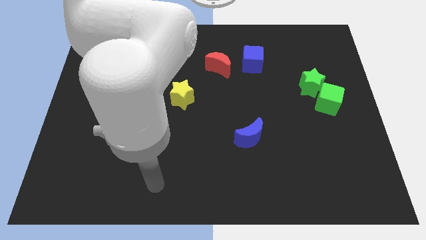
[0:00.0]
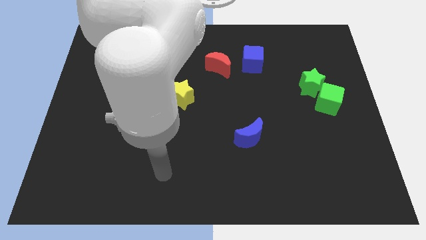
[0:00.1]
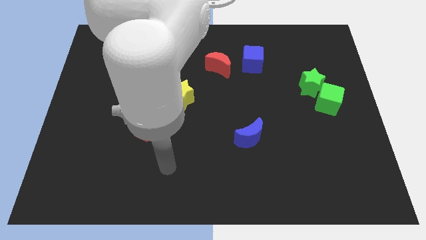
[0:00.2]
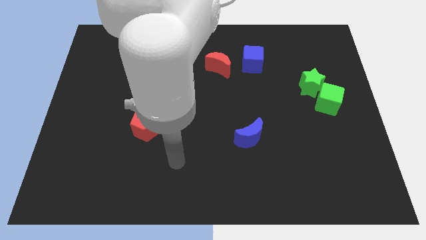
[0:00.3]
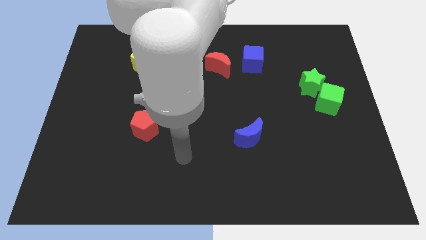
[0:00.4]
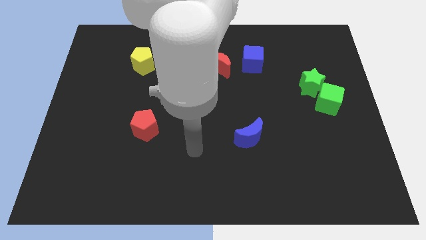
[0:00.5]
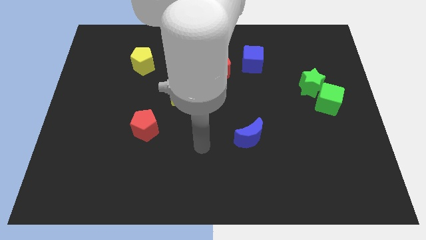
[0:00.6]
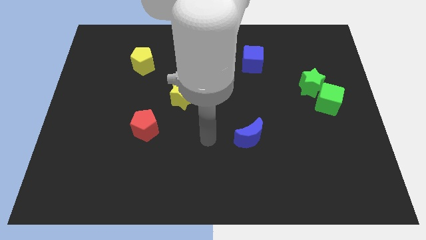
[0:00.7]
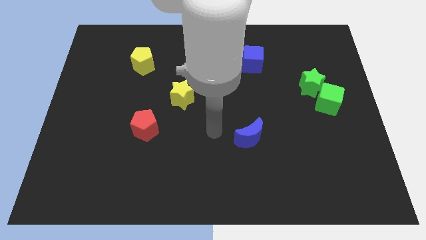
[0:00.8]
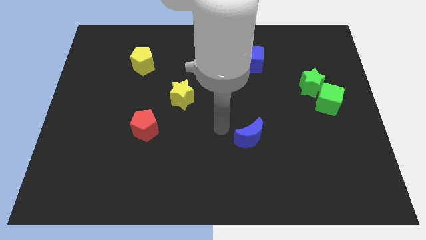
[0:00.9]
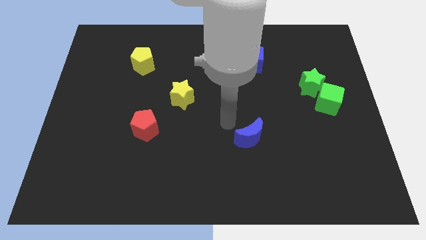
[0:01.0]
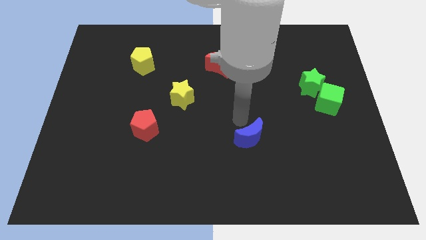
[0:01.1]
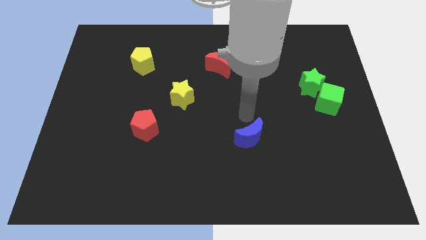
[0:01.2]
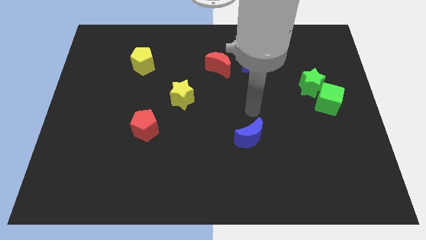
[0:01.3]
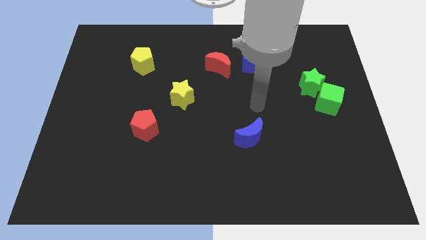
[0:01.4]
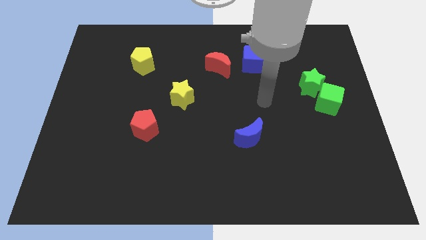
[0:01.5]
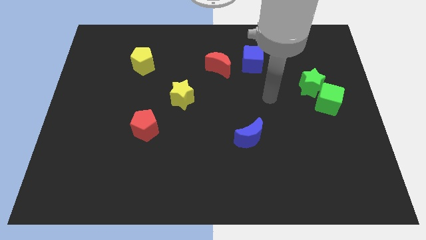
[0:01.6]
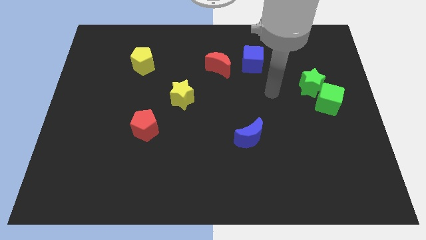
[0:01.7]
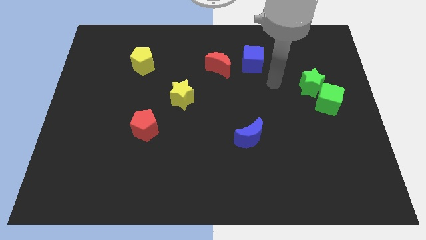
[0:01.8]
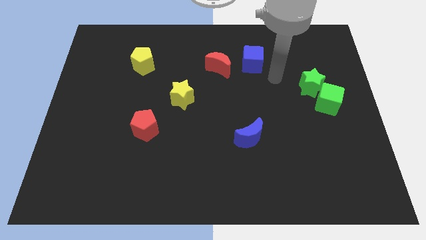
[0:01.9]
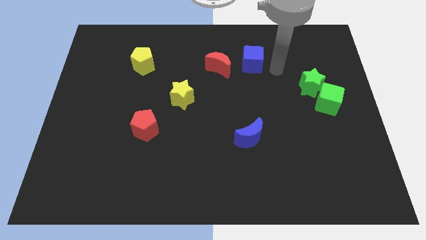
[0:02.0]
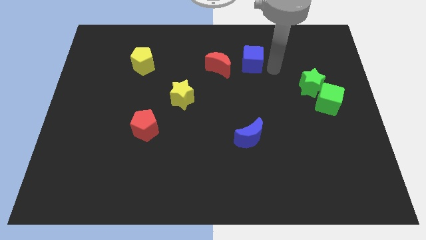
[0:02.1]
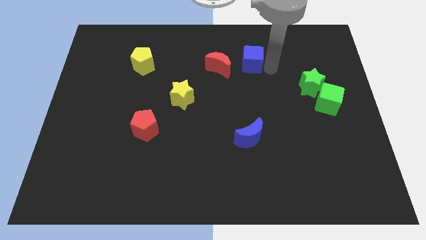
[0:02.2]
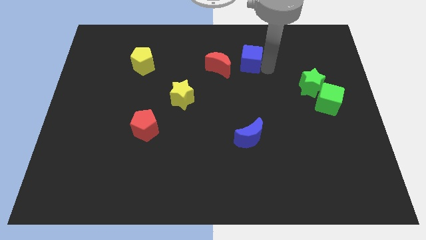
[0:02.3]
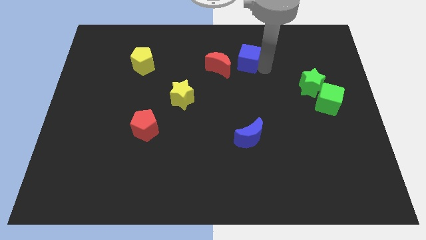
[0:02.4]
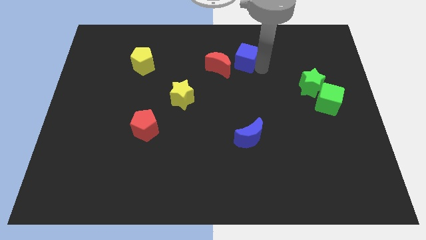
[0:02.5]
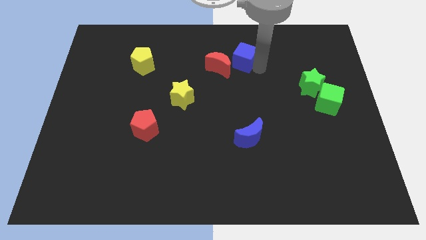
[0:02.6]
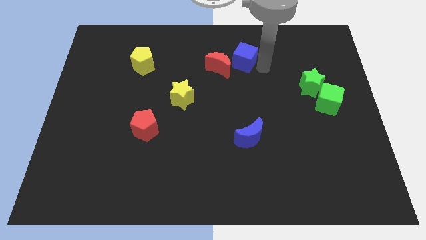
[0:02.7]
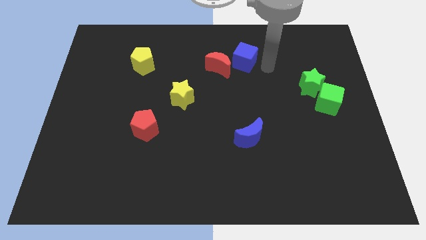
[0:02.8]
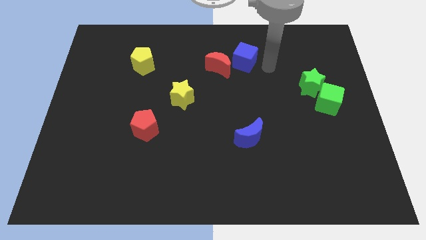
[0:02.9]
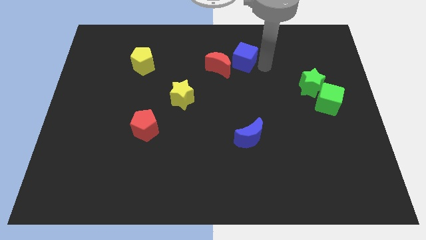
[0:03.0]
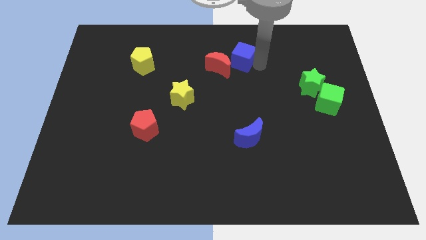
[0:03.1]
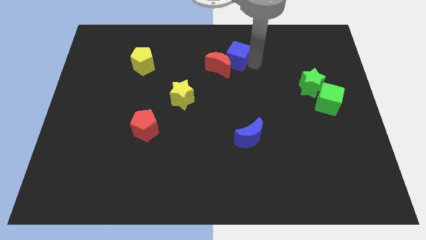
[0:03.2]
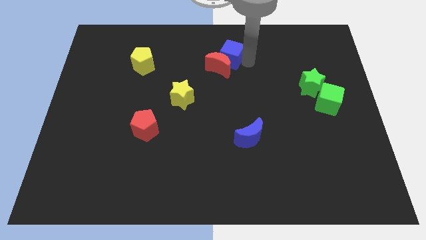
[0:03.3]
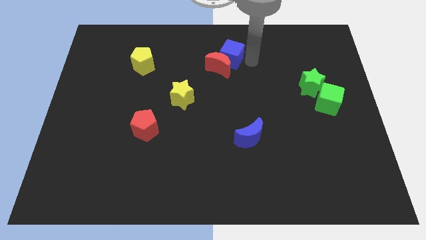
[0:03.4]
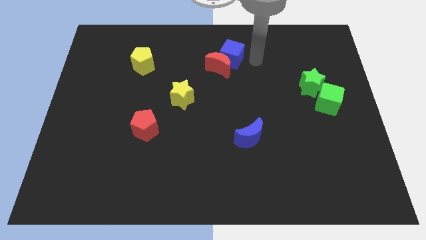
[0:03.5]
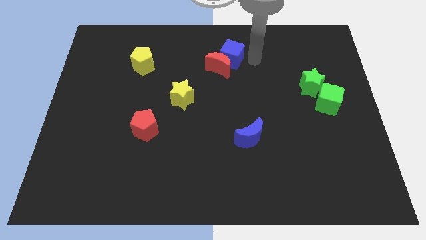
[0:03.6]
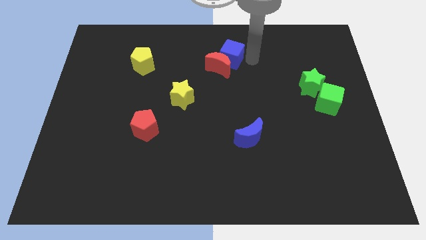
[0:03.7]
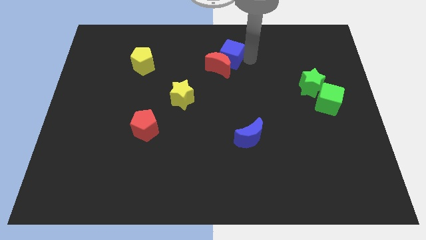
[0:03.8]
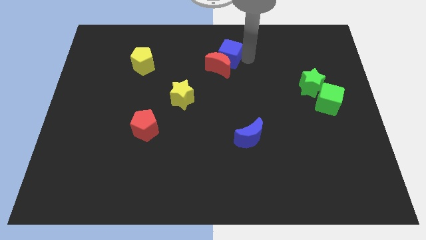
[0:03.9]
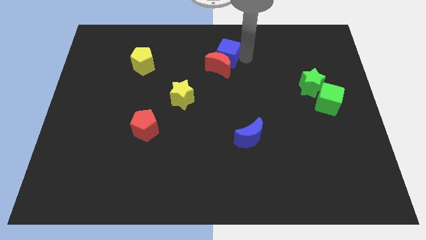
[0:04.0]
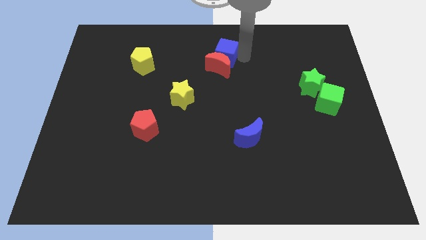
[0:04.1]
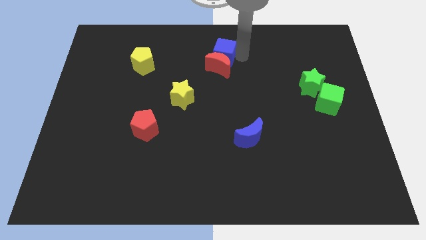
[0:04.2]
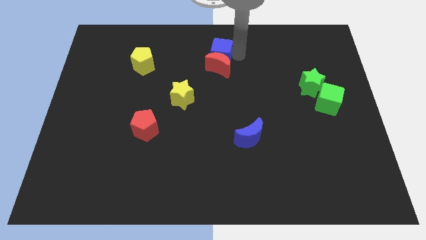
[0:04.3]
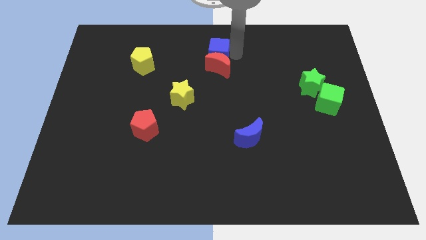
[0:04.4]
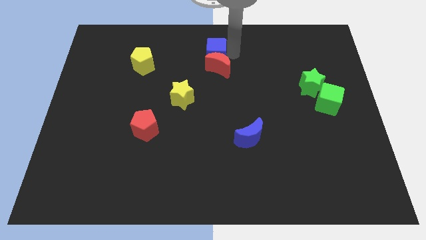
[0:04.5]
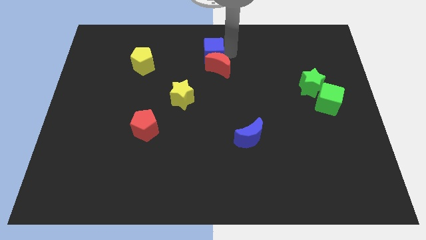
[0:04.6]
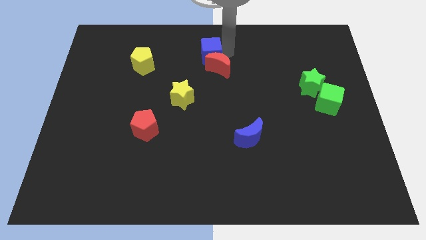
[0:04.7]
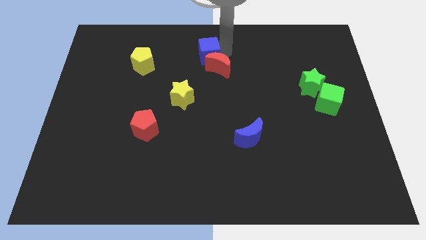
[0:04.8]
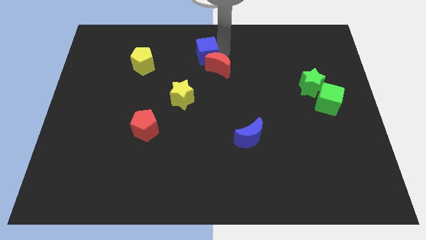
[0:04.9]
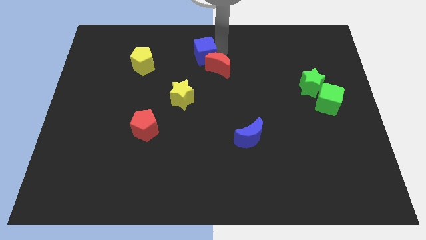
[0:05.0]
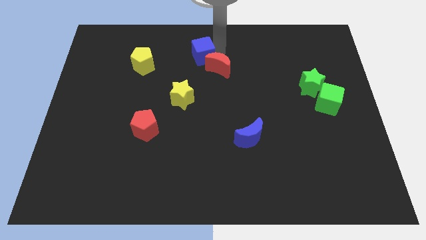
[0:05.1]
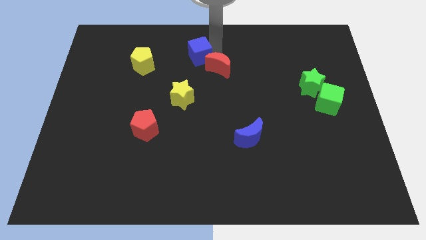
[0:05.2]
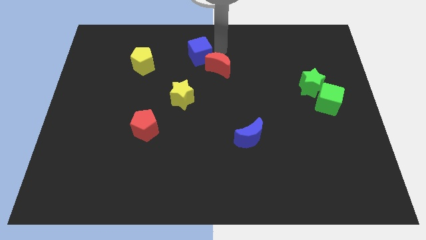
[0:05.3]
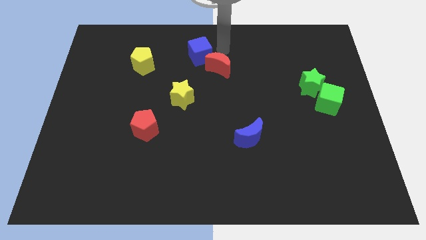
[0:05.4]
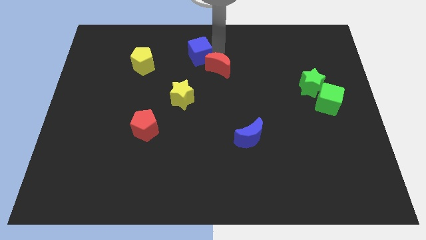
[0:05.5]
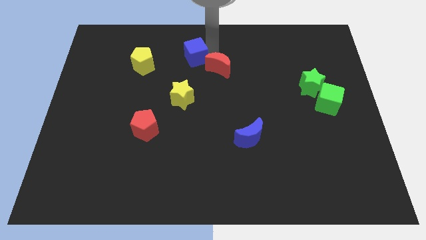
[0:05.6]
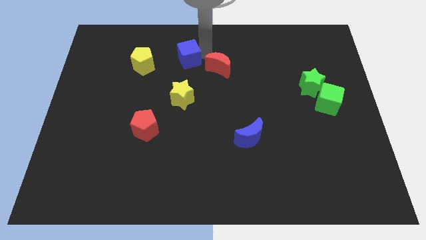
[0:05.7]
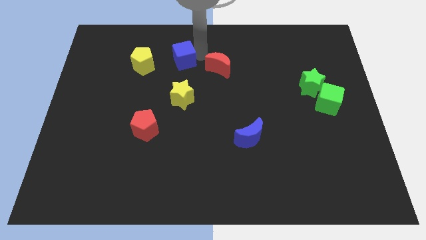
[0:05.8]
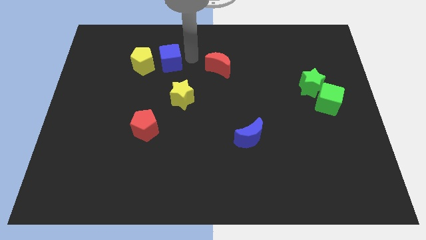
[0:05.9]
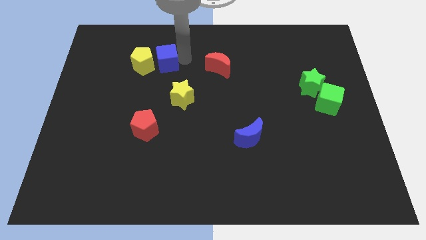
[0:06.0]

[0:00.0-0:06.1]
move the blue cube to the yellow pentagon

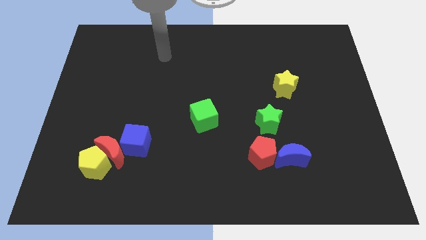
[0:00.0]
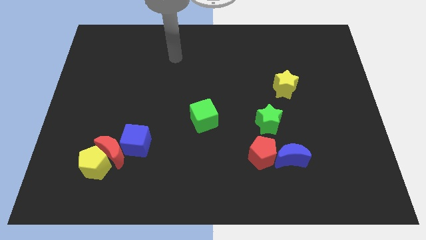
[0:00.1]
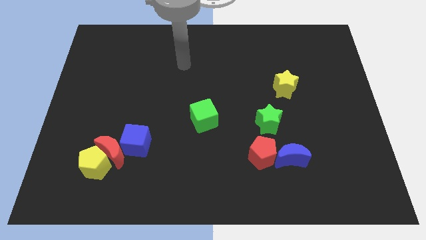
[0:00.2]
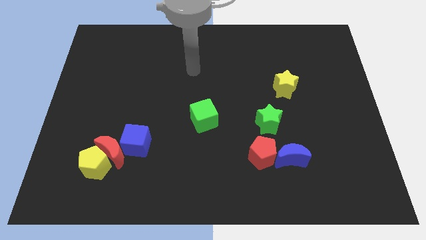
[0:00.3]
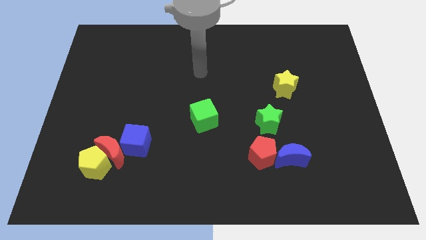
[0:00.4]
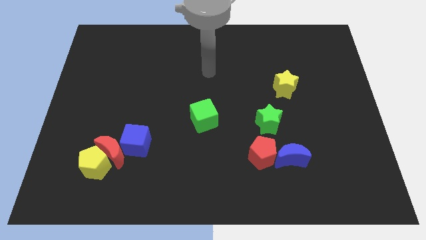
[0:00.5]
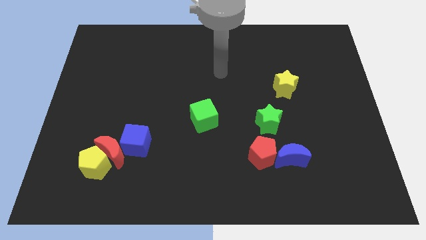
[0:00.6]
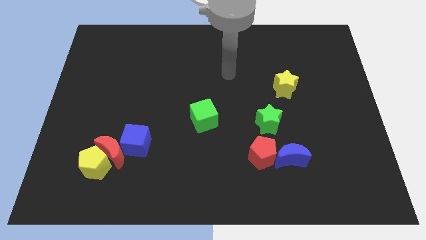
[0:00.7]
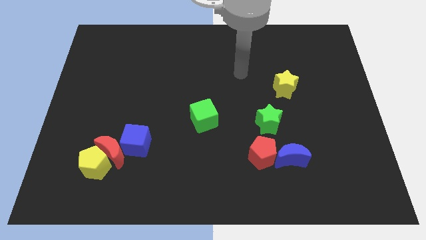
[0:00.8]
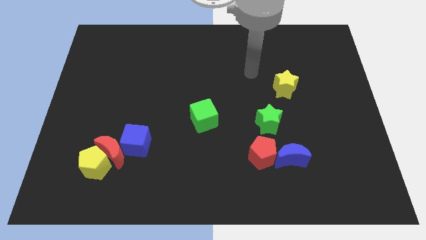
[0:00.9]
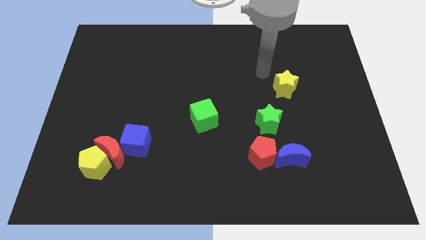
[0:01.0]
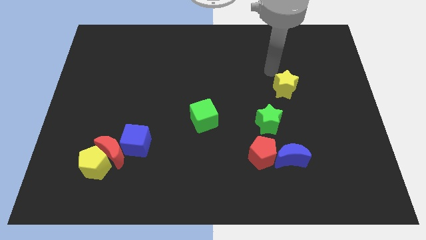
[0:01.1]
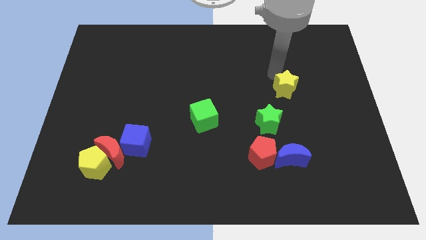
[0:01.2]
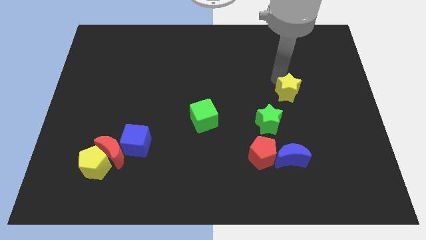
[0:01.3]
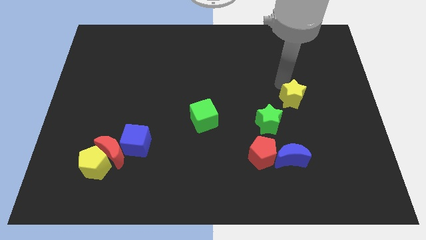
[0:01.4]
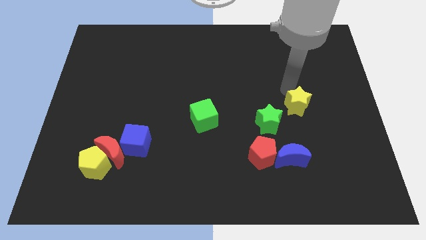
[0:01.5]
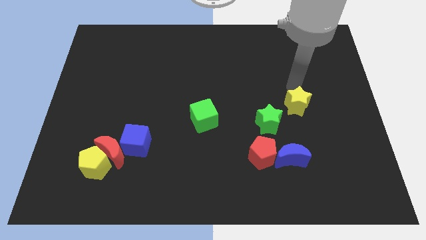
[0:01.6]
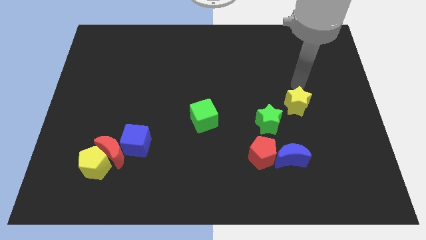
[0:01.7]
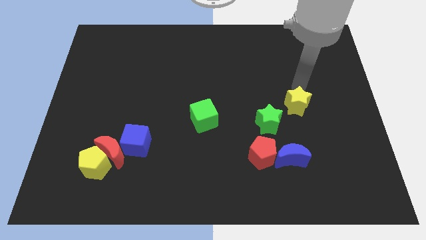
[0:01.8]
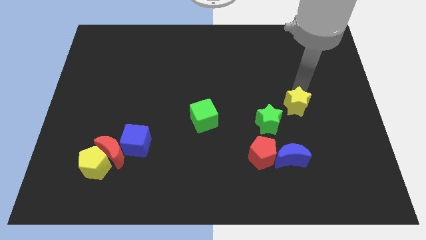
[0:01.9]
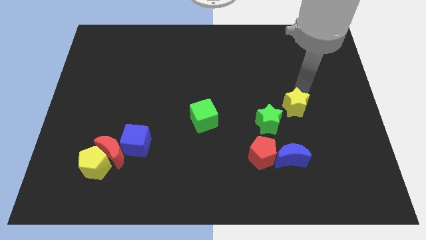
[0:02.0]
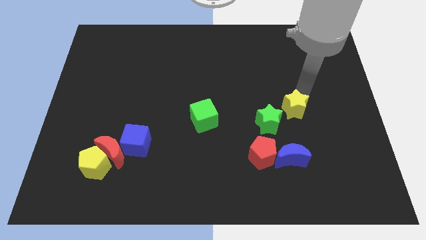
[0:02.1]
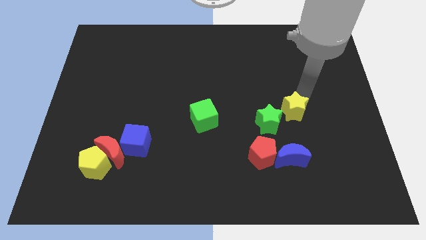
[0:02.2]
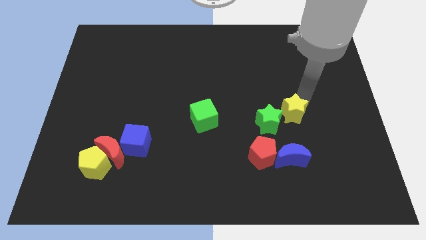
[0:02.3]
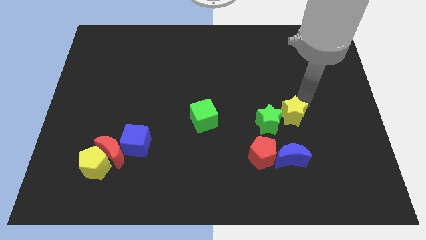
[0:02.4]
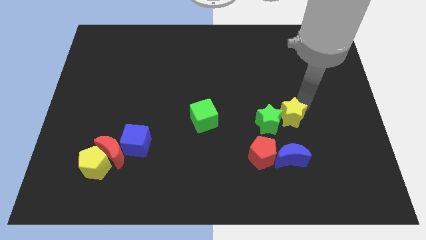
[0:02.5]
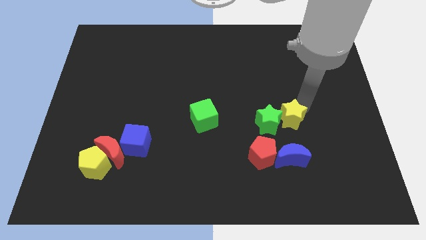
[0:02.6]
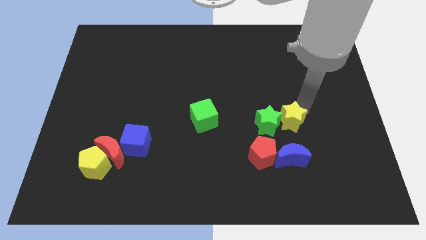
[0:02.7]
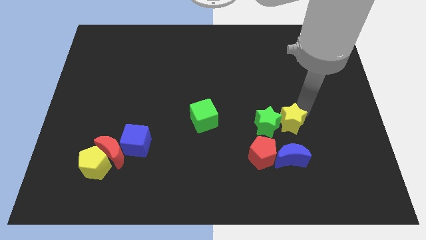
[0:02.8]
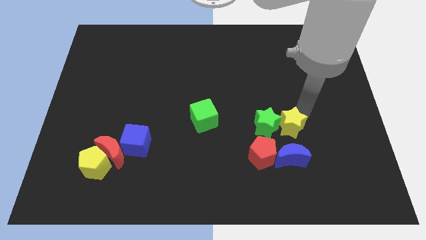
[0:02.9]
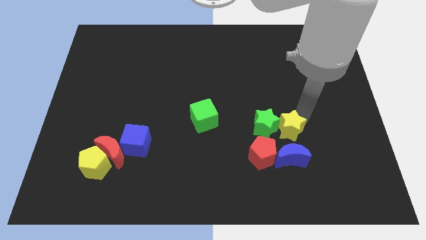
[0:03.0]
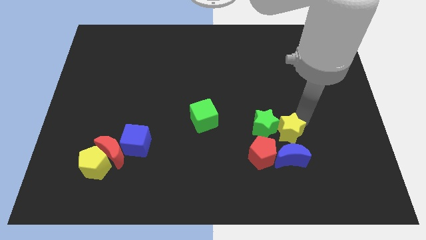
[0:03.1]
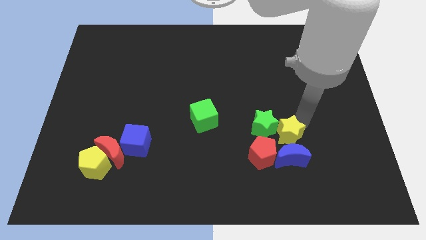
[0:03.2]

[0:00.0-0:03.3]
push the yellow star to the blue moon
